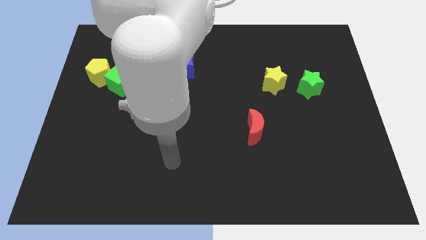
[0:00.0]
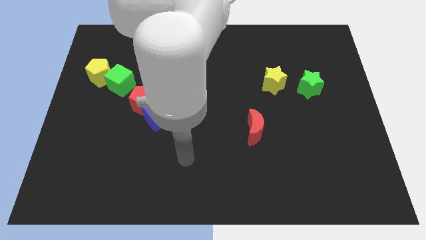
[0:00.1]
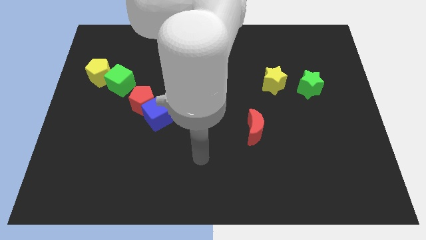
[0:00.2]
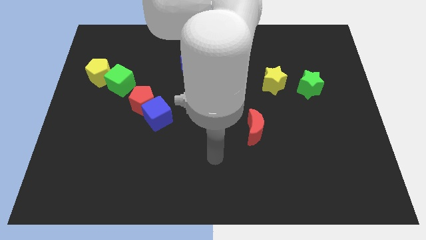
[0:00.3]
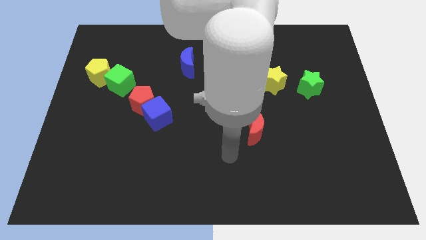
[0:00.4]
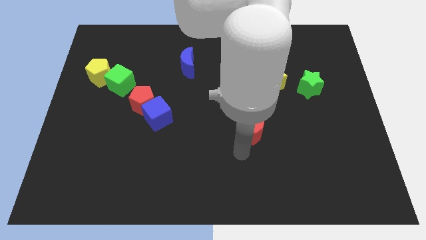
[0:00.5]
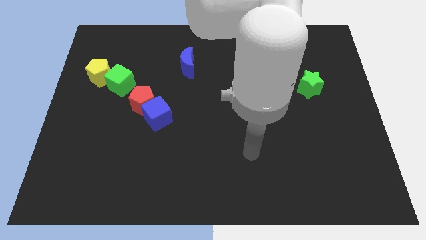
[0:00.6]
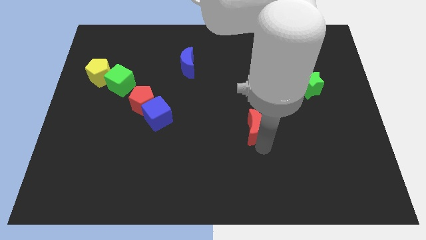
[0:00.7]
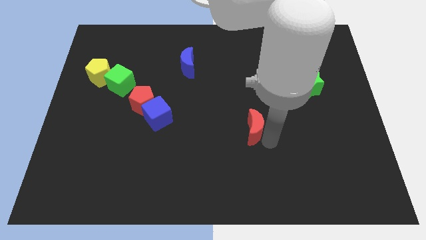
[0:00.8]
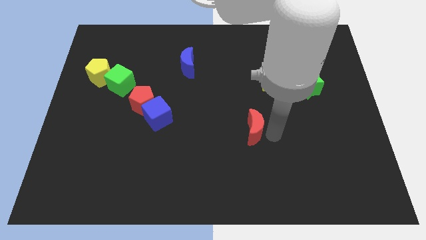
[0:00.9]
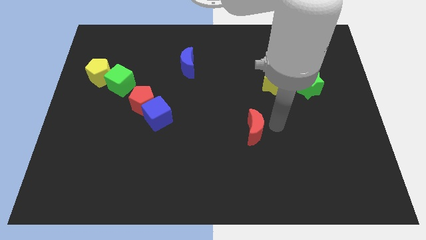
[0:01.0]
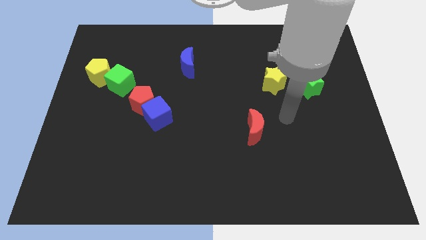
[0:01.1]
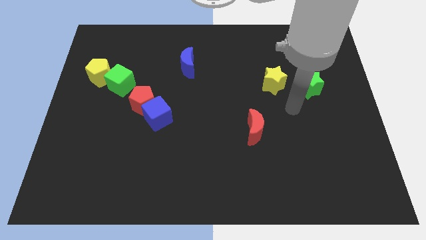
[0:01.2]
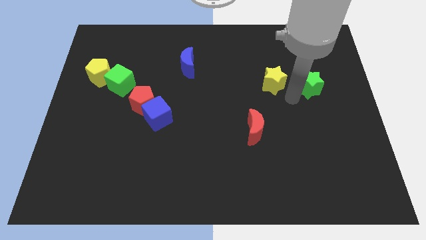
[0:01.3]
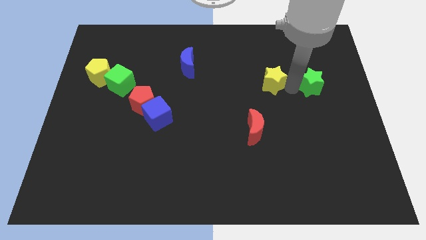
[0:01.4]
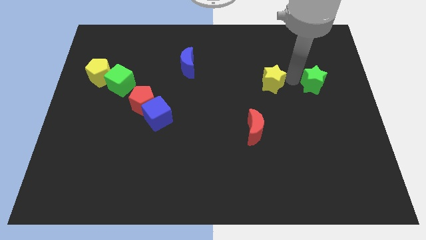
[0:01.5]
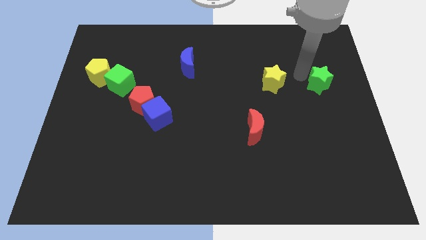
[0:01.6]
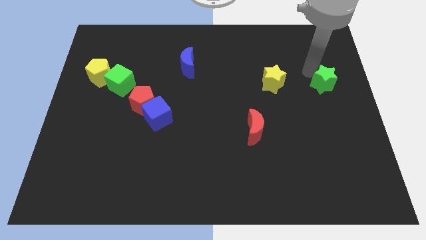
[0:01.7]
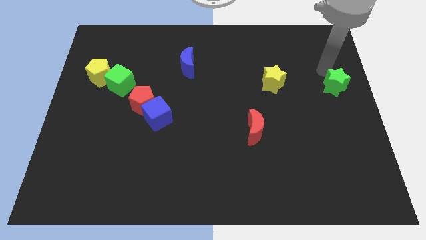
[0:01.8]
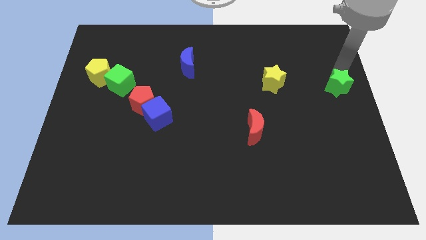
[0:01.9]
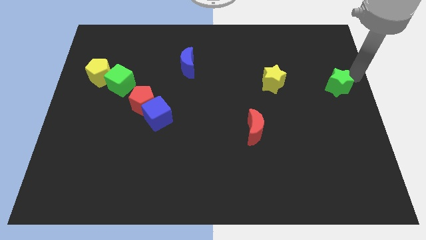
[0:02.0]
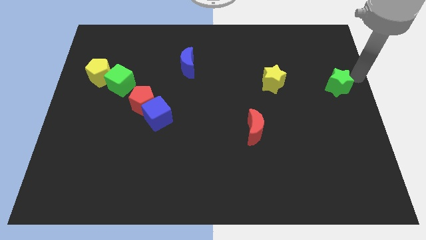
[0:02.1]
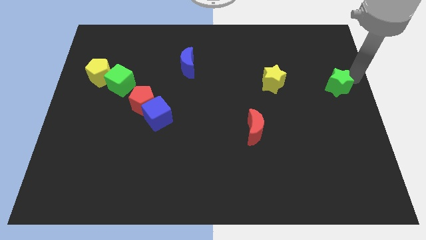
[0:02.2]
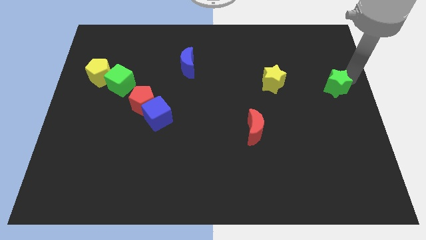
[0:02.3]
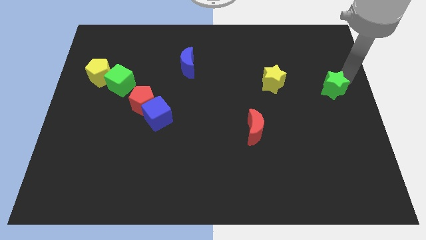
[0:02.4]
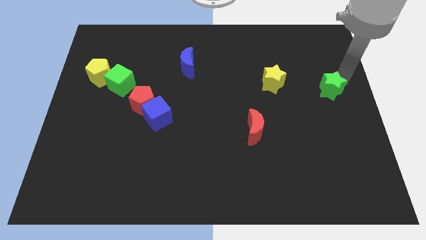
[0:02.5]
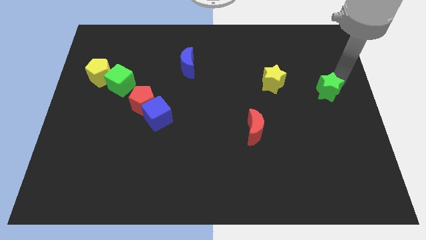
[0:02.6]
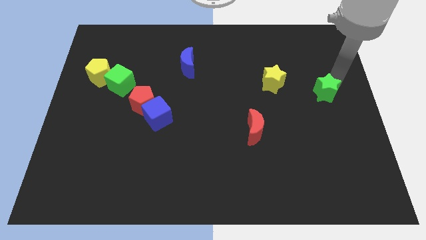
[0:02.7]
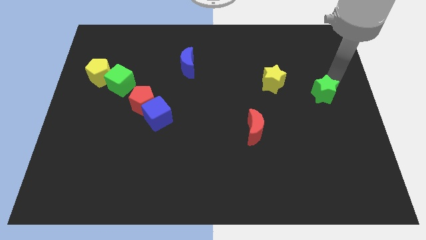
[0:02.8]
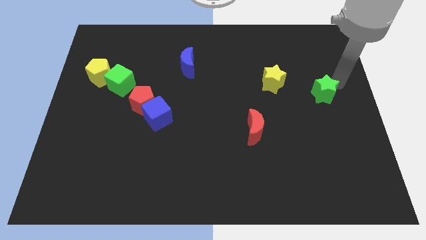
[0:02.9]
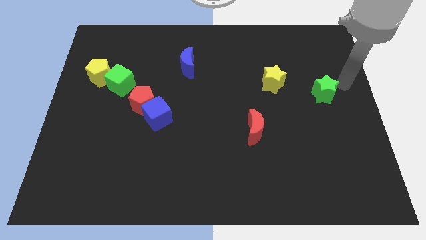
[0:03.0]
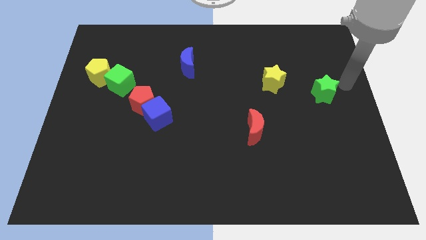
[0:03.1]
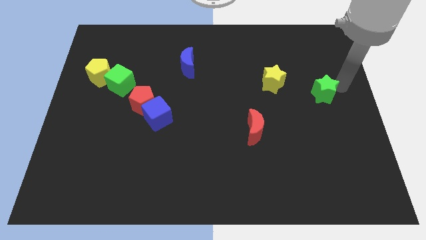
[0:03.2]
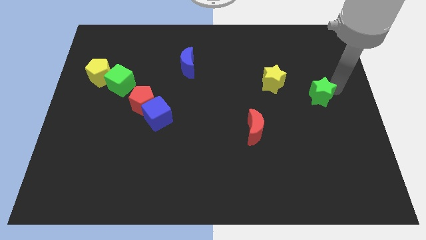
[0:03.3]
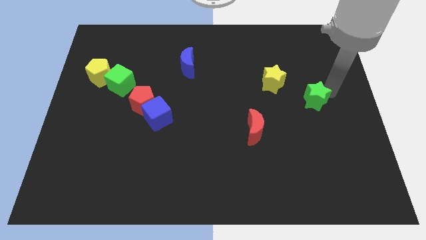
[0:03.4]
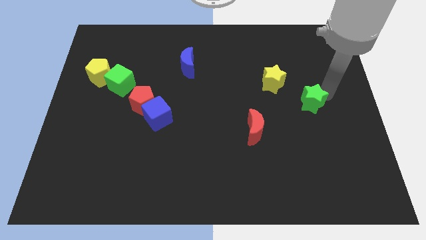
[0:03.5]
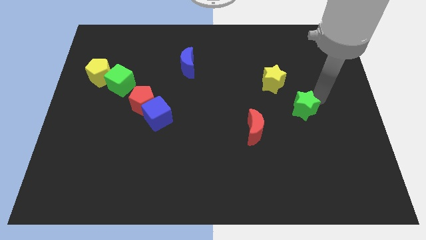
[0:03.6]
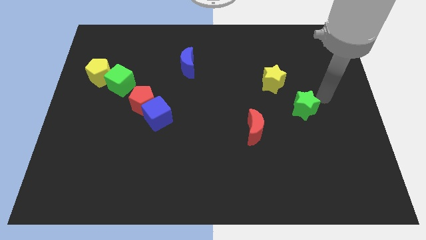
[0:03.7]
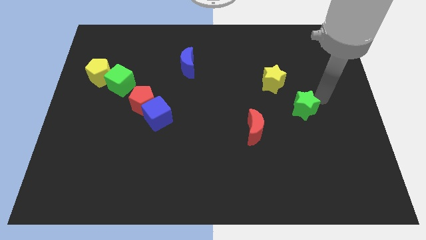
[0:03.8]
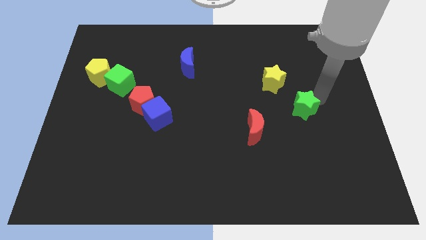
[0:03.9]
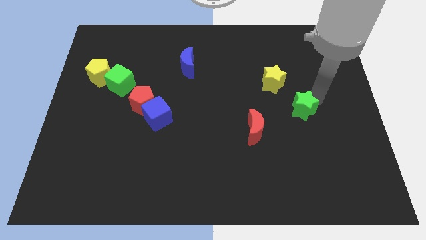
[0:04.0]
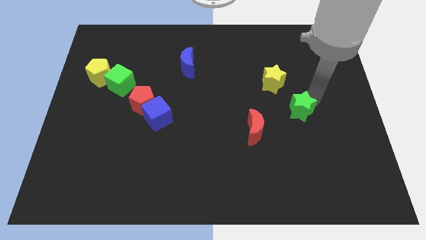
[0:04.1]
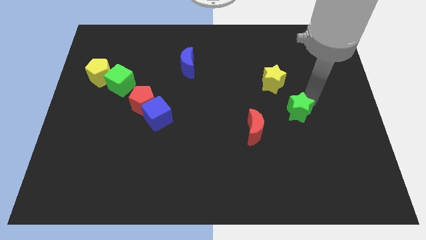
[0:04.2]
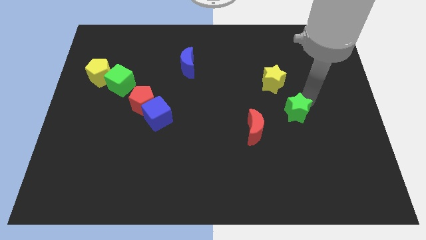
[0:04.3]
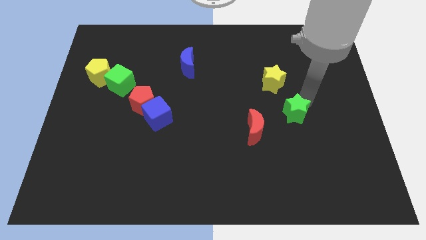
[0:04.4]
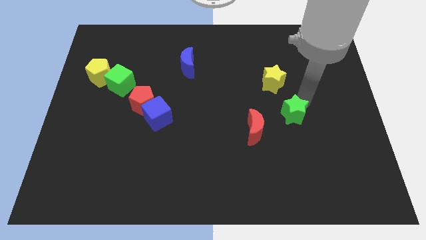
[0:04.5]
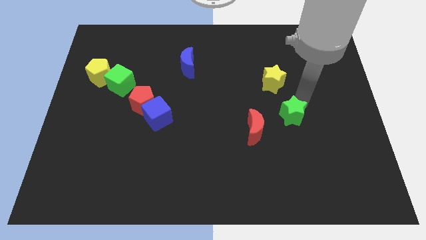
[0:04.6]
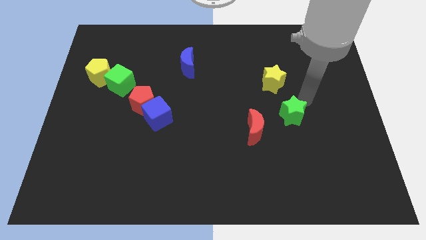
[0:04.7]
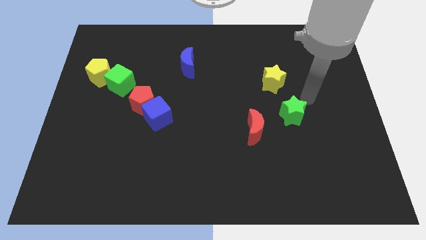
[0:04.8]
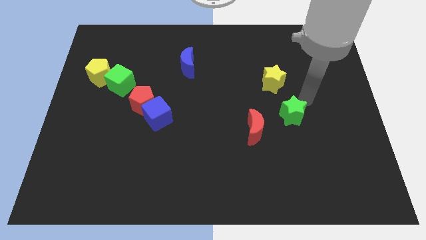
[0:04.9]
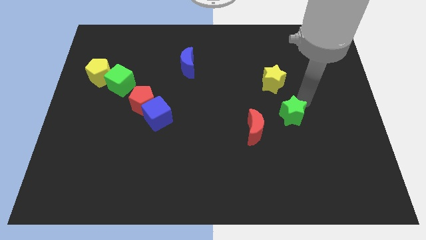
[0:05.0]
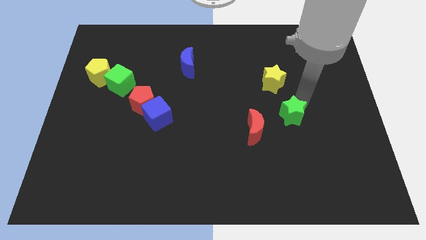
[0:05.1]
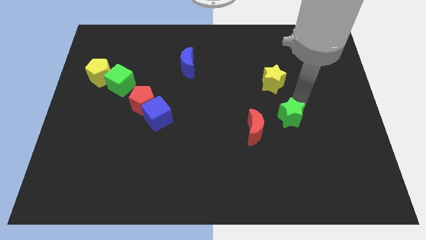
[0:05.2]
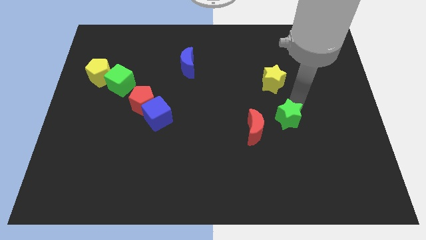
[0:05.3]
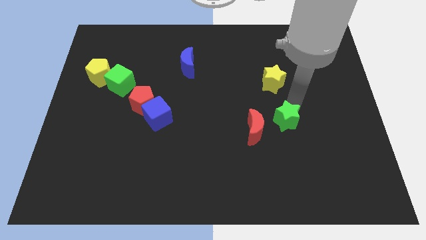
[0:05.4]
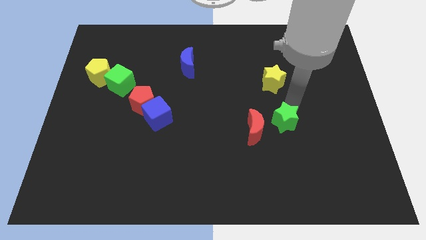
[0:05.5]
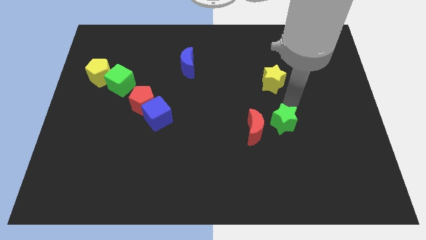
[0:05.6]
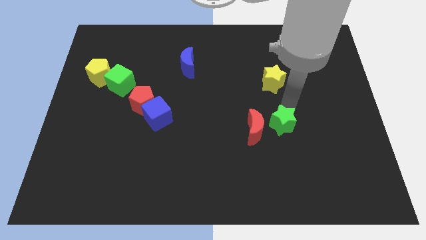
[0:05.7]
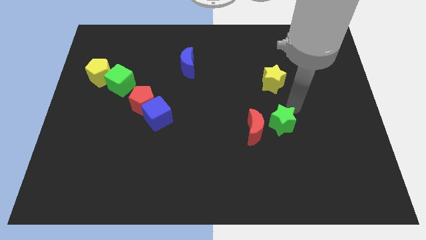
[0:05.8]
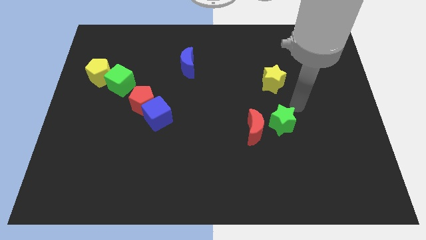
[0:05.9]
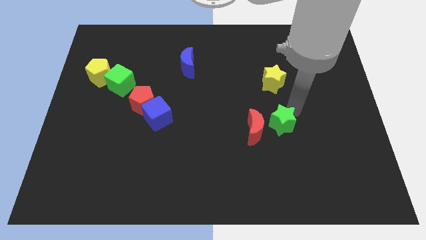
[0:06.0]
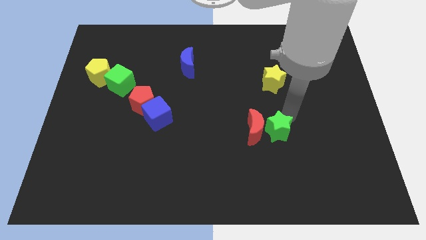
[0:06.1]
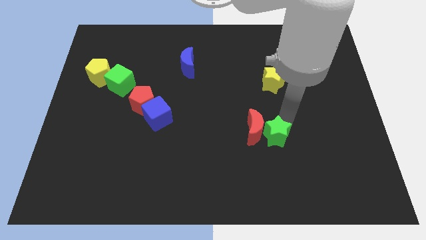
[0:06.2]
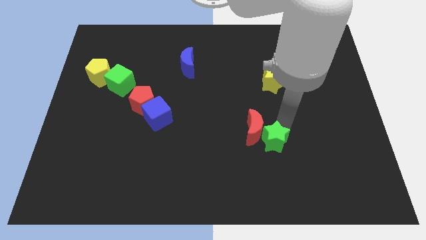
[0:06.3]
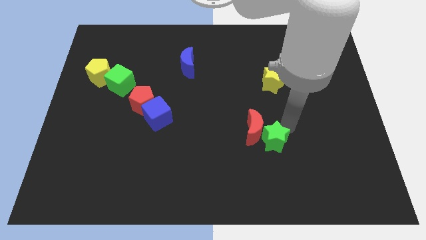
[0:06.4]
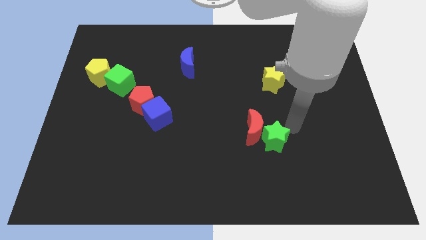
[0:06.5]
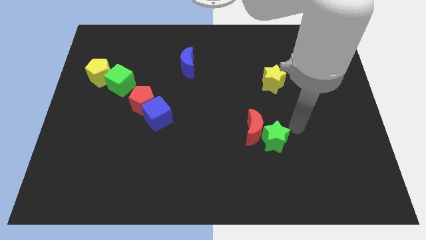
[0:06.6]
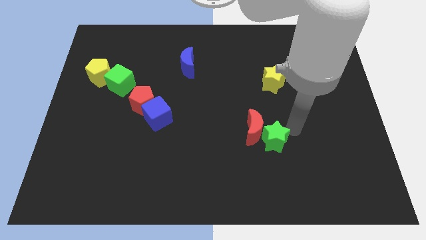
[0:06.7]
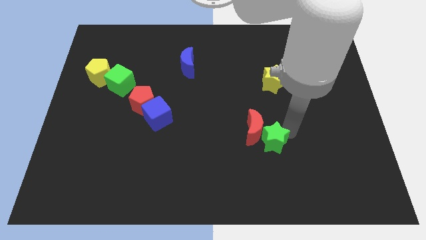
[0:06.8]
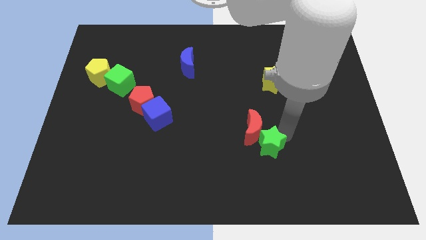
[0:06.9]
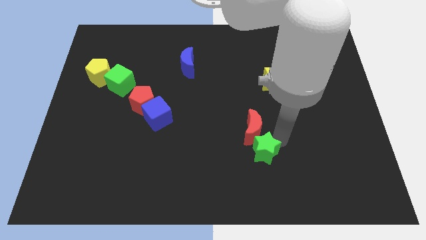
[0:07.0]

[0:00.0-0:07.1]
move the green star diagonally downwards and to the left

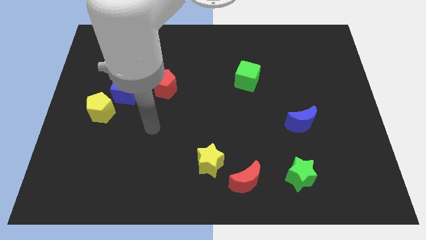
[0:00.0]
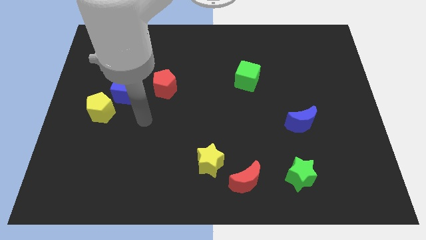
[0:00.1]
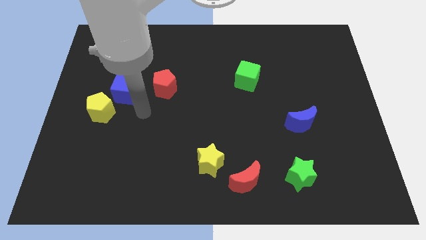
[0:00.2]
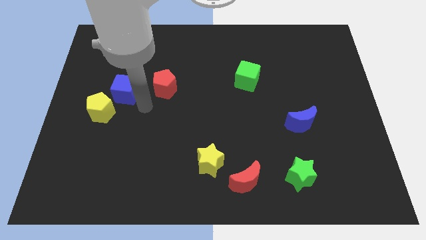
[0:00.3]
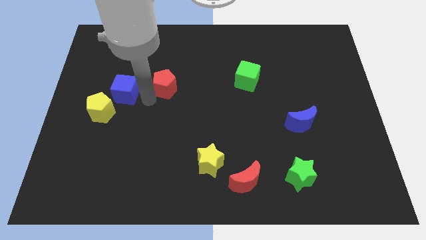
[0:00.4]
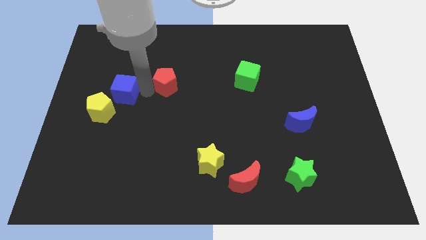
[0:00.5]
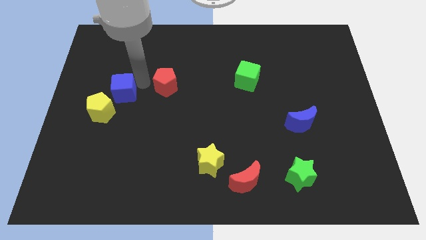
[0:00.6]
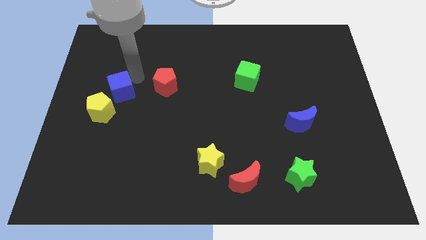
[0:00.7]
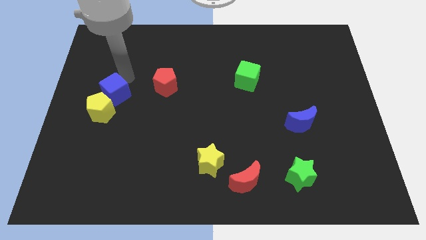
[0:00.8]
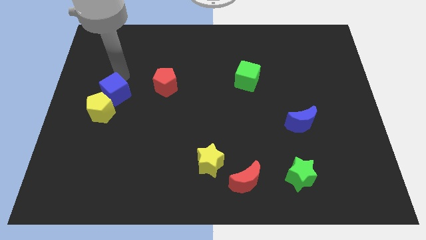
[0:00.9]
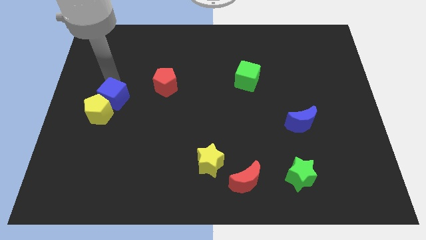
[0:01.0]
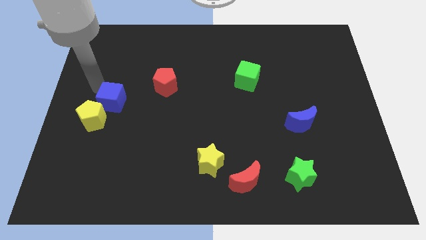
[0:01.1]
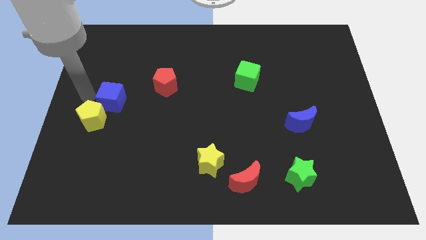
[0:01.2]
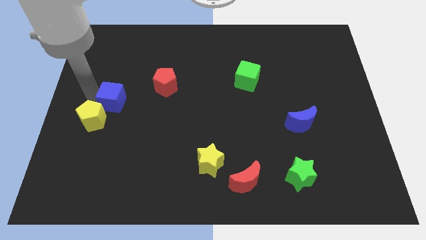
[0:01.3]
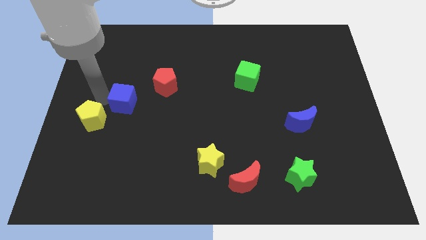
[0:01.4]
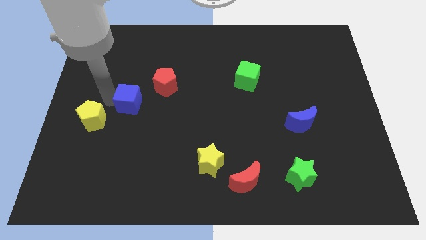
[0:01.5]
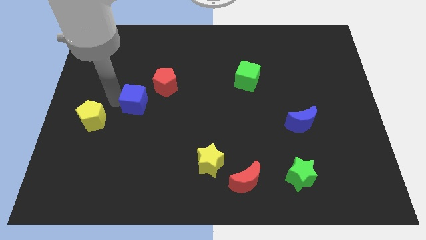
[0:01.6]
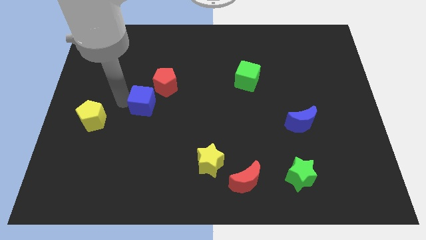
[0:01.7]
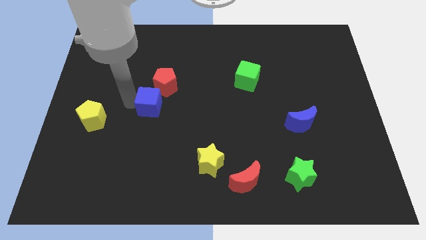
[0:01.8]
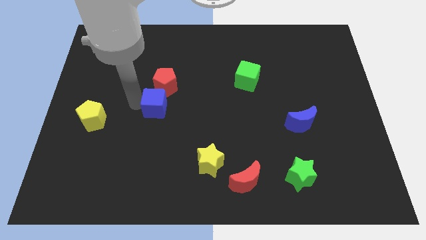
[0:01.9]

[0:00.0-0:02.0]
move the blue cube to the right somewhat
